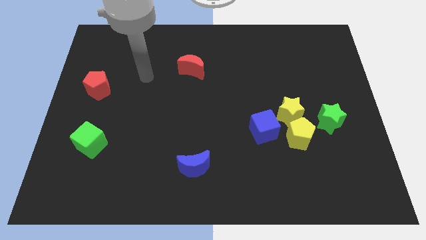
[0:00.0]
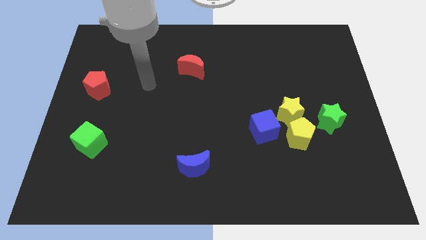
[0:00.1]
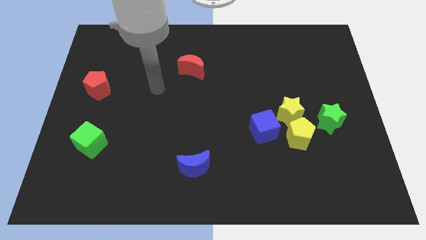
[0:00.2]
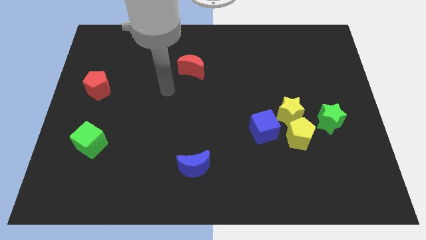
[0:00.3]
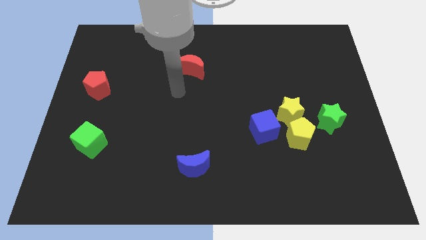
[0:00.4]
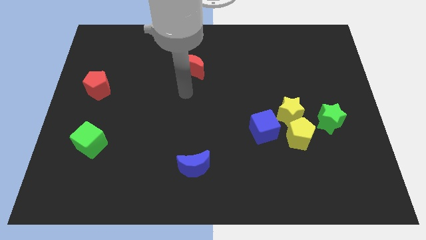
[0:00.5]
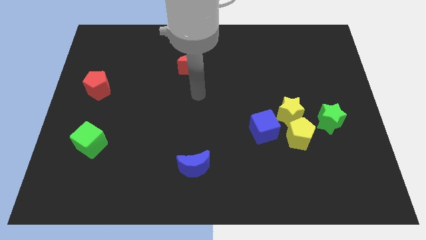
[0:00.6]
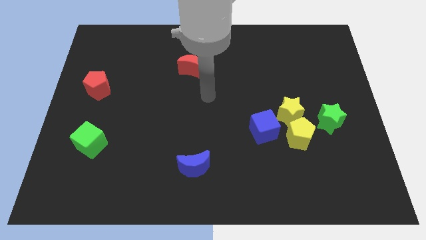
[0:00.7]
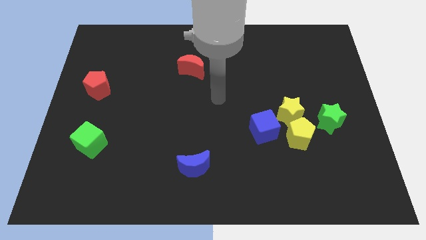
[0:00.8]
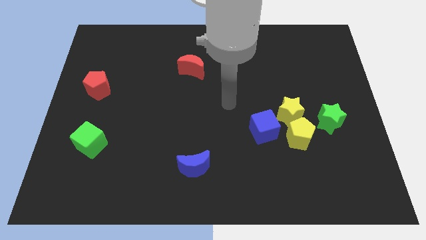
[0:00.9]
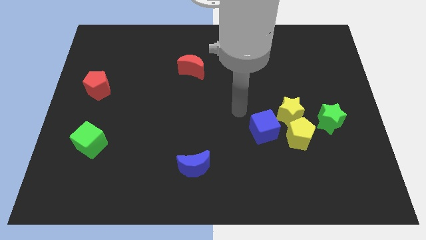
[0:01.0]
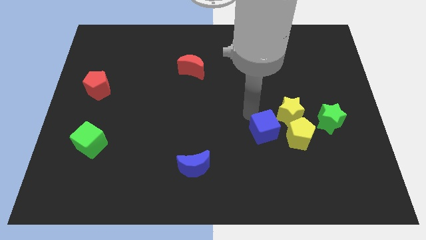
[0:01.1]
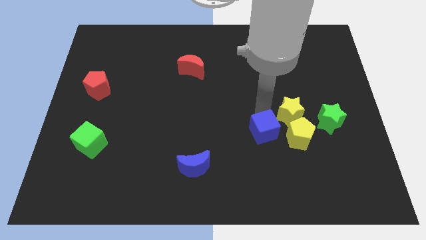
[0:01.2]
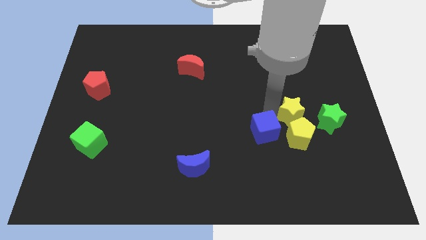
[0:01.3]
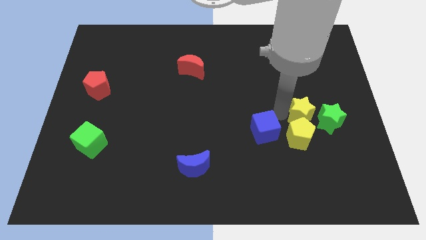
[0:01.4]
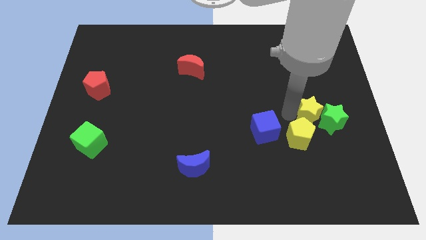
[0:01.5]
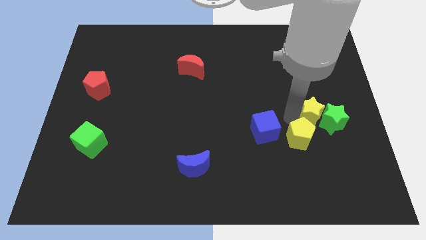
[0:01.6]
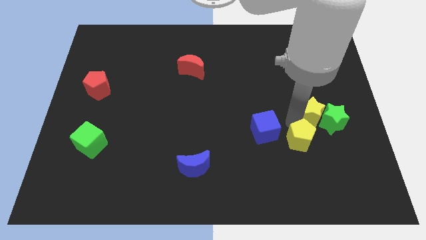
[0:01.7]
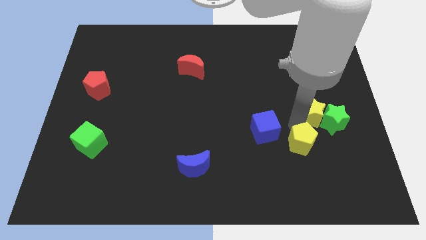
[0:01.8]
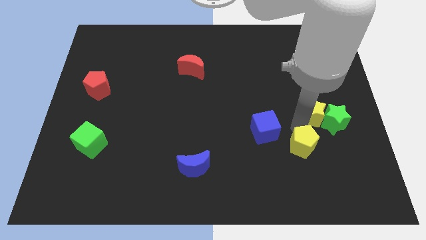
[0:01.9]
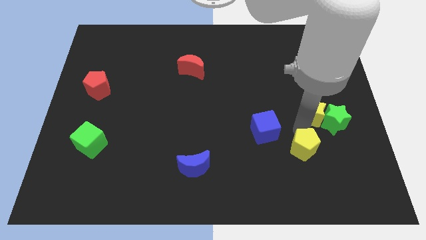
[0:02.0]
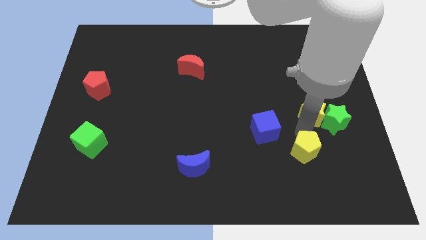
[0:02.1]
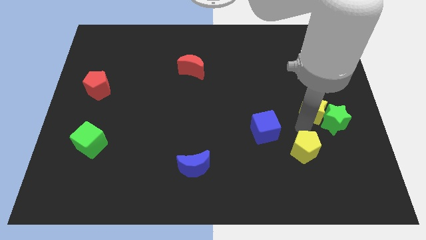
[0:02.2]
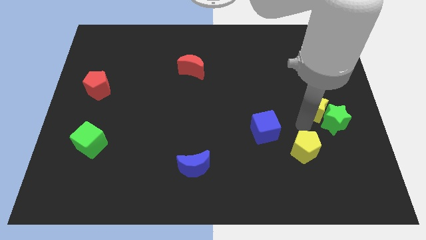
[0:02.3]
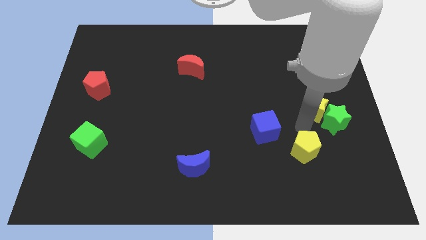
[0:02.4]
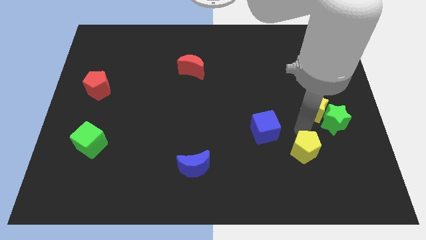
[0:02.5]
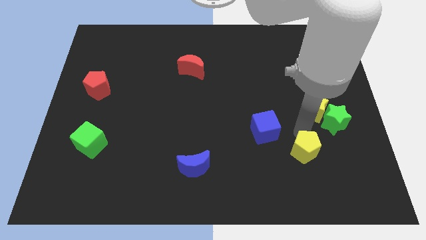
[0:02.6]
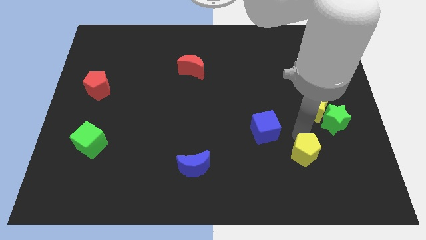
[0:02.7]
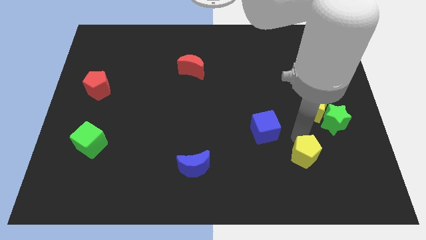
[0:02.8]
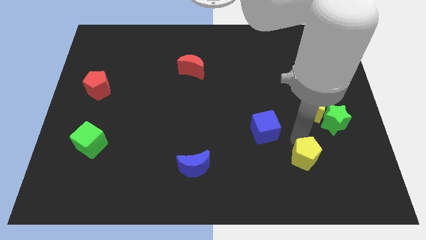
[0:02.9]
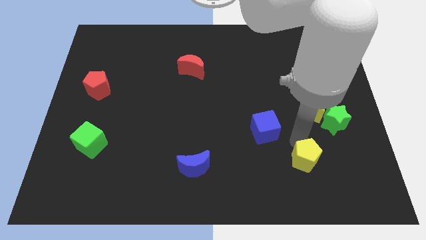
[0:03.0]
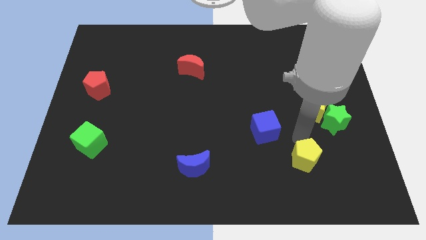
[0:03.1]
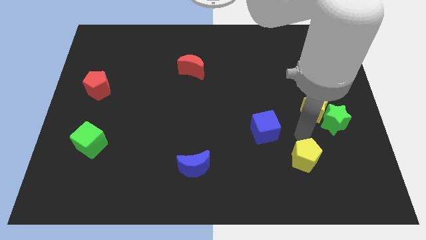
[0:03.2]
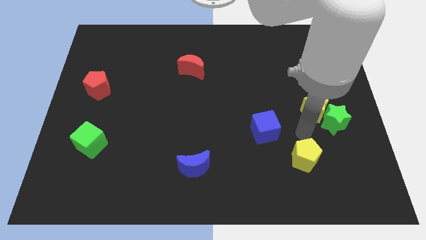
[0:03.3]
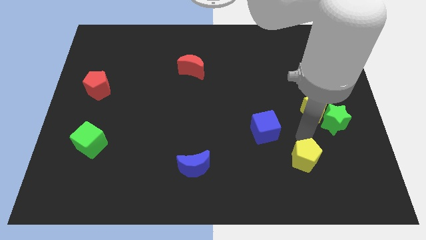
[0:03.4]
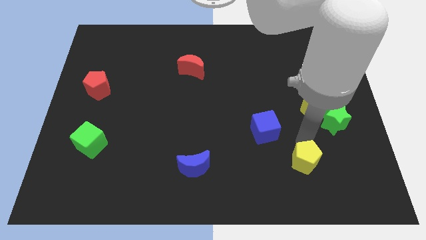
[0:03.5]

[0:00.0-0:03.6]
move the yellow pentagon away from the group

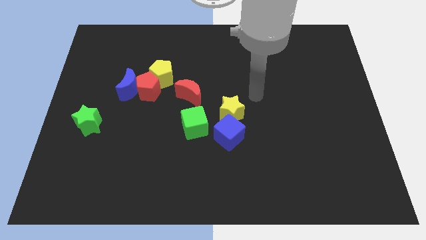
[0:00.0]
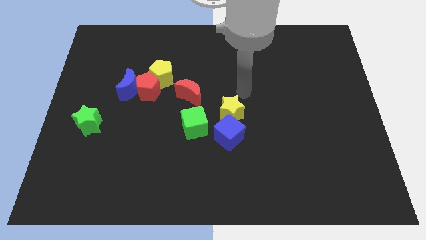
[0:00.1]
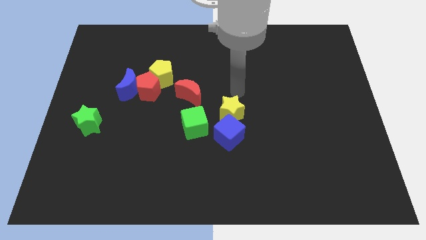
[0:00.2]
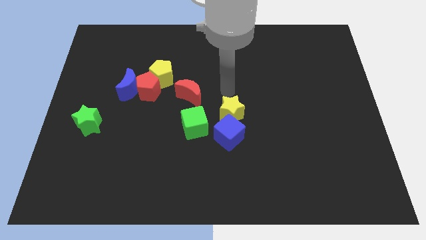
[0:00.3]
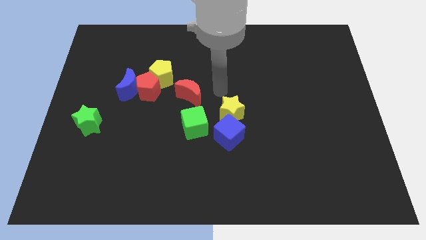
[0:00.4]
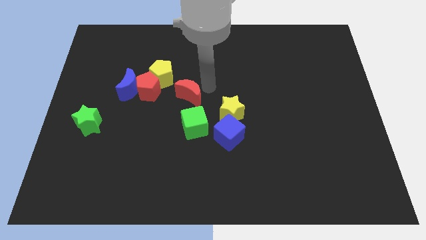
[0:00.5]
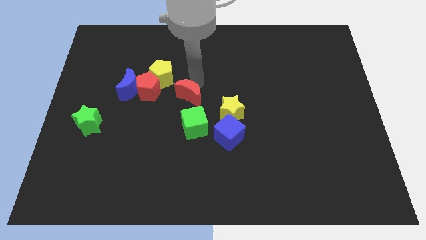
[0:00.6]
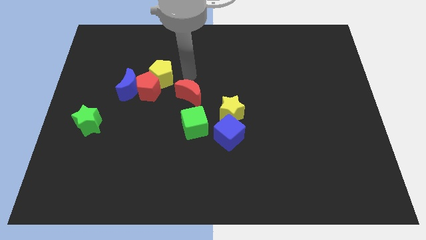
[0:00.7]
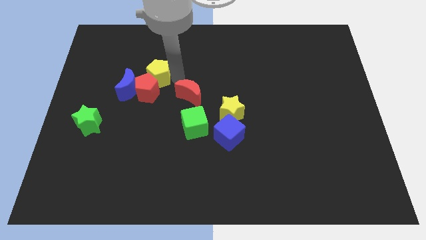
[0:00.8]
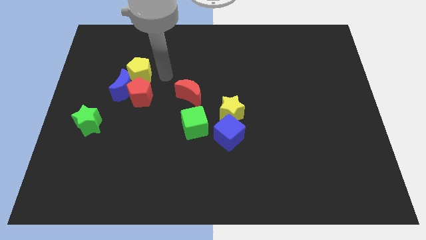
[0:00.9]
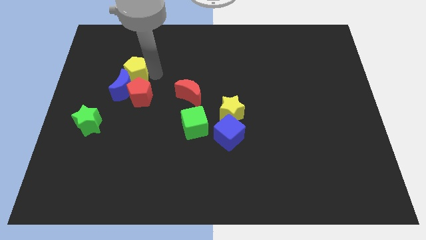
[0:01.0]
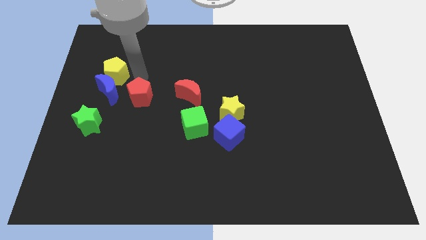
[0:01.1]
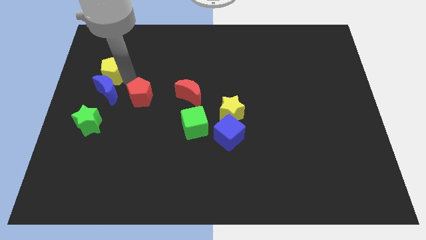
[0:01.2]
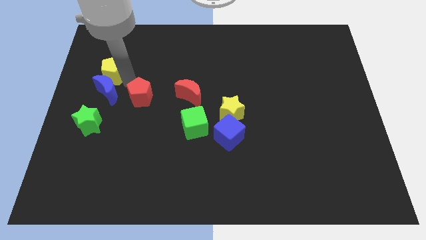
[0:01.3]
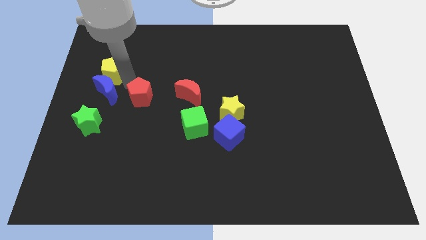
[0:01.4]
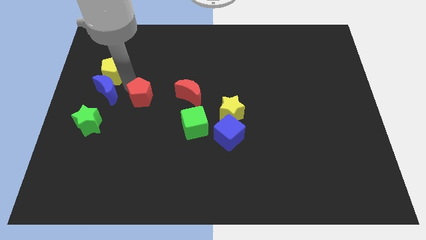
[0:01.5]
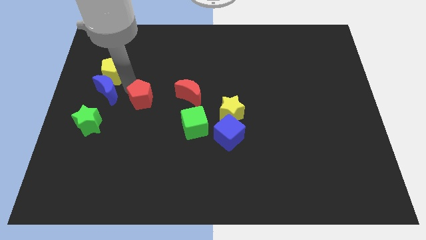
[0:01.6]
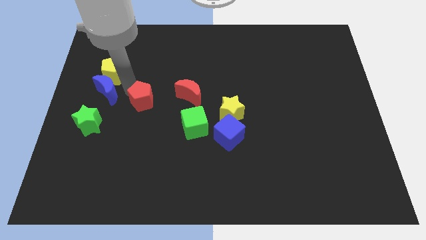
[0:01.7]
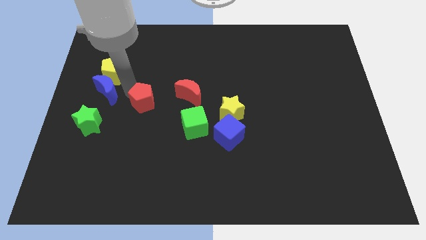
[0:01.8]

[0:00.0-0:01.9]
move the red pentagon away from the blue moon and yellow pentagon

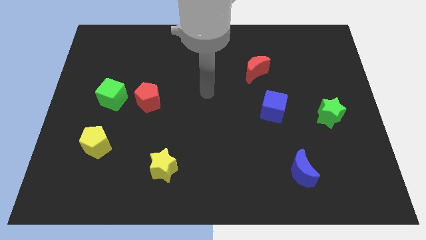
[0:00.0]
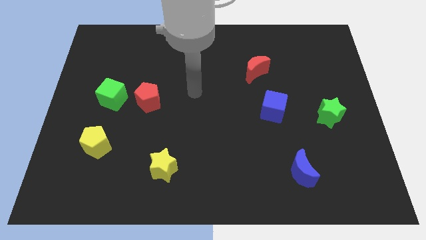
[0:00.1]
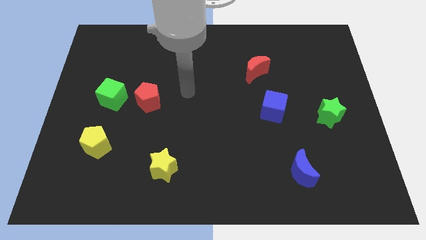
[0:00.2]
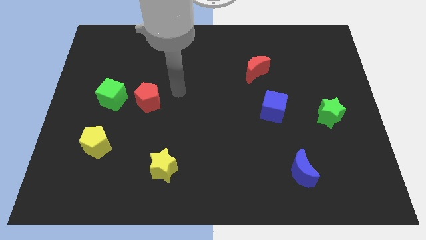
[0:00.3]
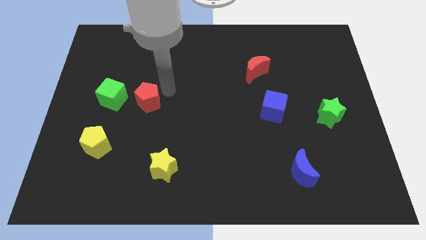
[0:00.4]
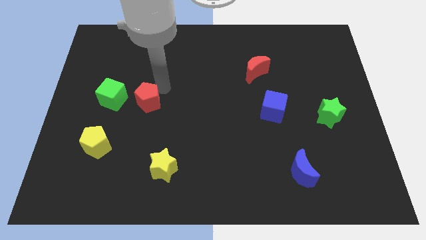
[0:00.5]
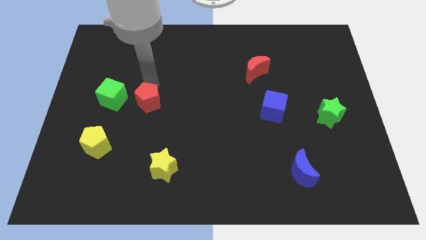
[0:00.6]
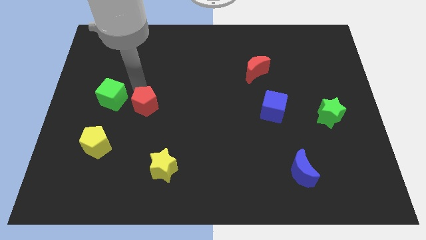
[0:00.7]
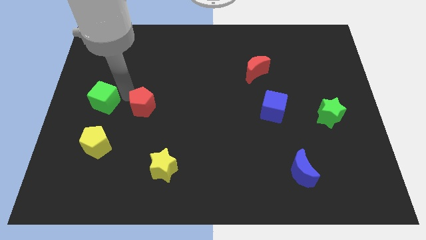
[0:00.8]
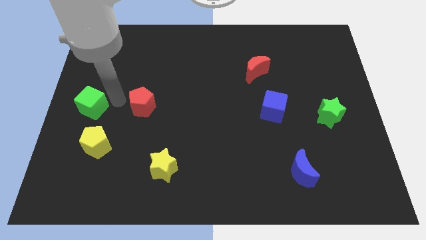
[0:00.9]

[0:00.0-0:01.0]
move the red pentagon away from the green cube

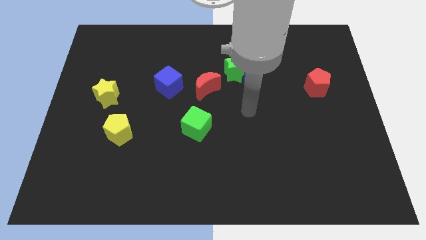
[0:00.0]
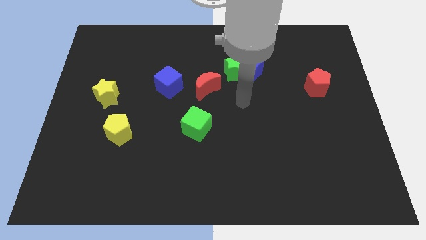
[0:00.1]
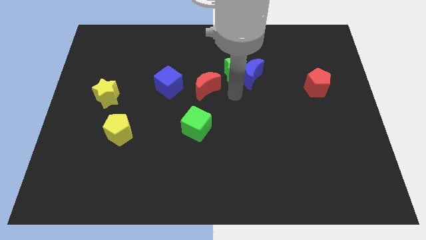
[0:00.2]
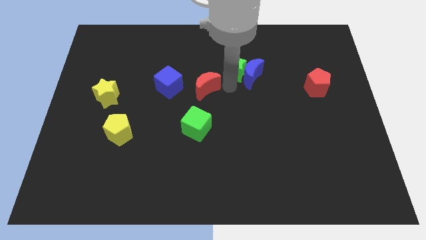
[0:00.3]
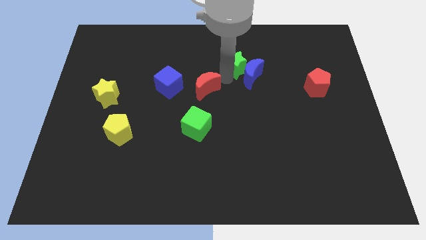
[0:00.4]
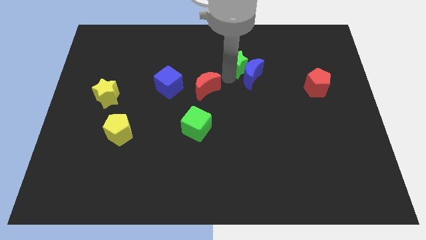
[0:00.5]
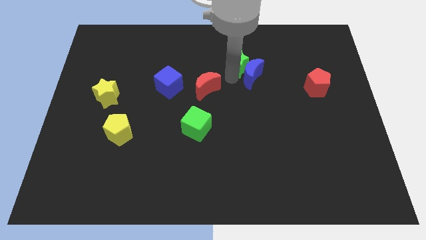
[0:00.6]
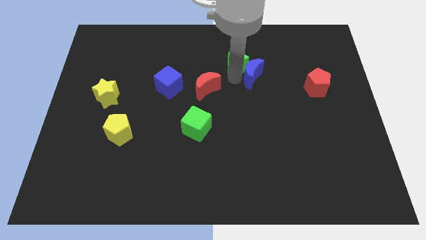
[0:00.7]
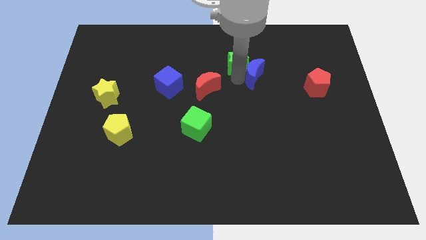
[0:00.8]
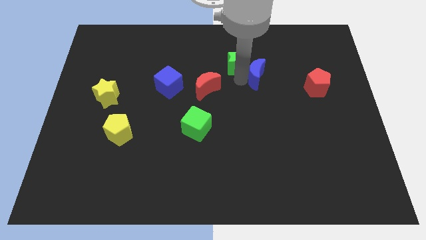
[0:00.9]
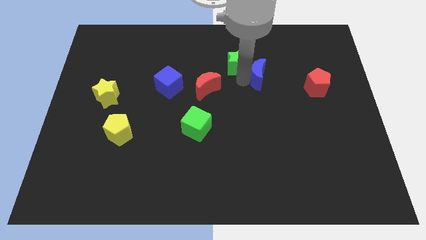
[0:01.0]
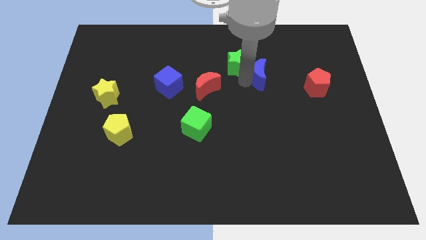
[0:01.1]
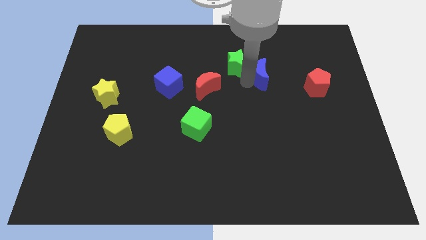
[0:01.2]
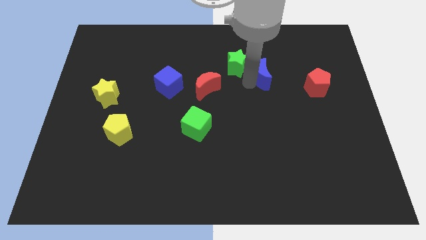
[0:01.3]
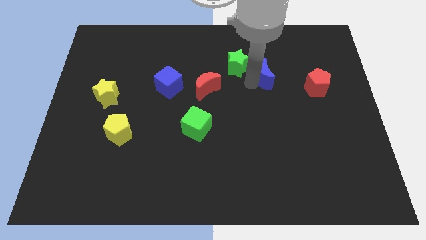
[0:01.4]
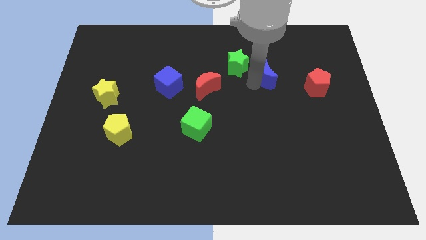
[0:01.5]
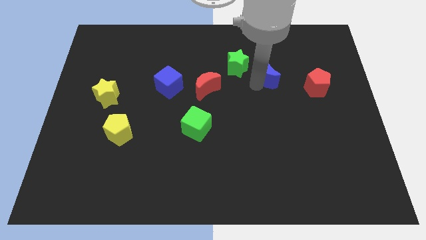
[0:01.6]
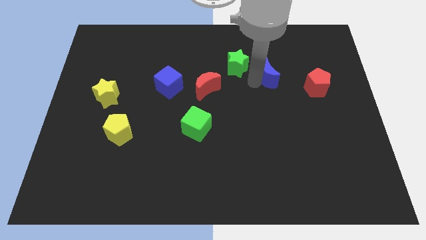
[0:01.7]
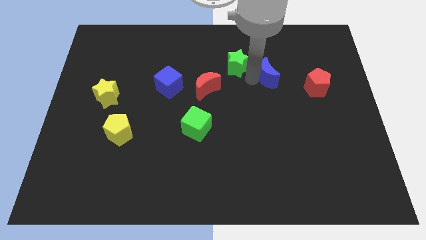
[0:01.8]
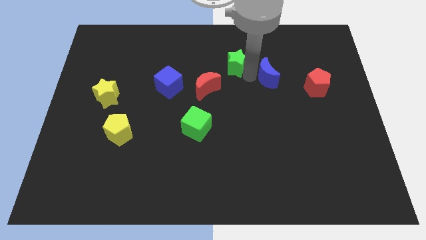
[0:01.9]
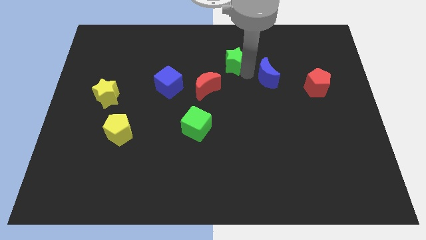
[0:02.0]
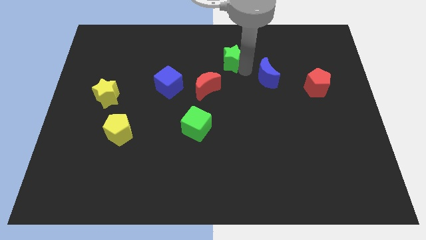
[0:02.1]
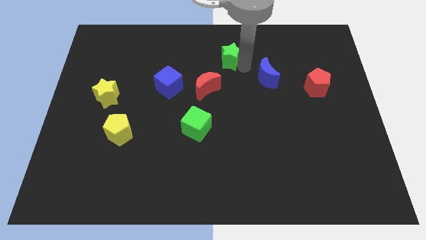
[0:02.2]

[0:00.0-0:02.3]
pull the blue moon apart from the green star

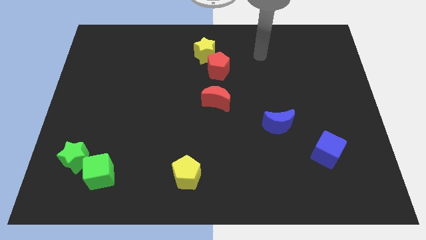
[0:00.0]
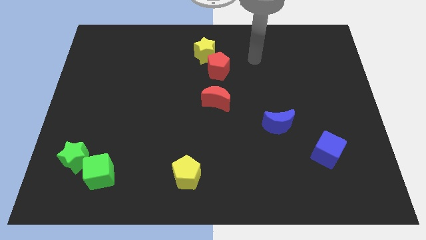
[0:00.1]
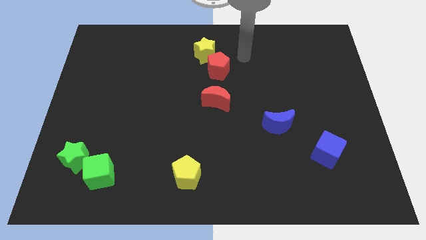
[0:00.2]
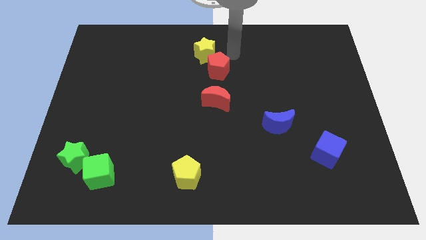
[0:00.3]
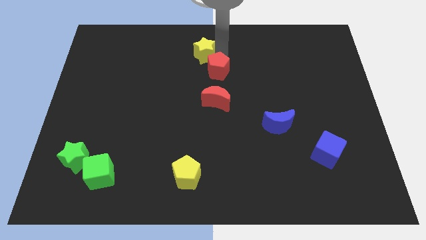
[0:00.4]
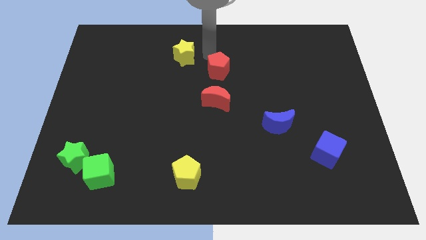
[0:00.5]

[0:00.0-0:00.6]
separate the red pentagon from the yellow star
